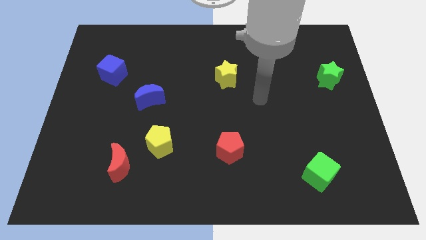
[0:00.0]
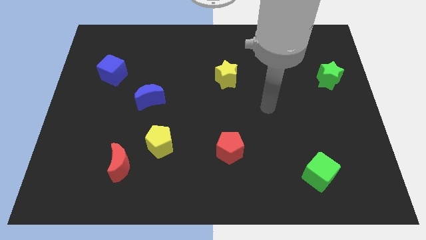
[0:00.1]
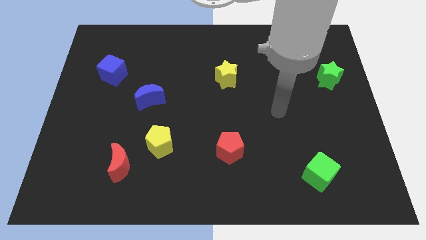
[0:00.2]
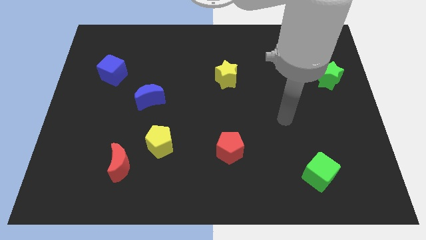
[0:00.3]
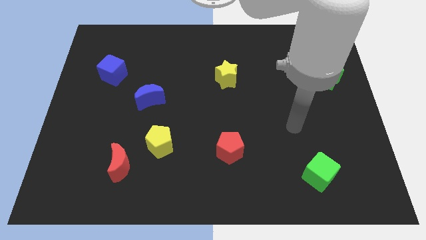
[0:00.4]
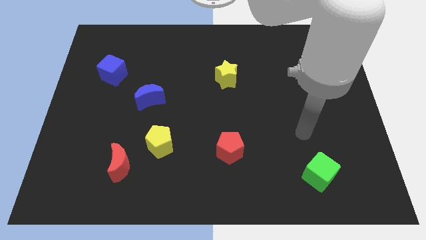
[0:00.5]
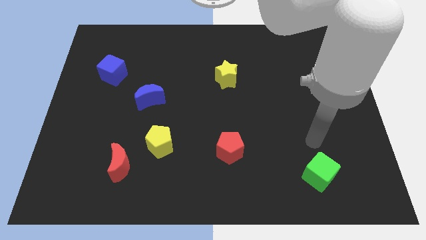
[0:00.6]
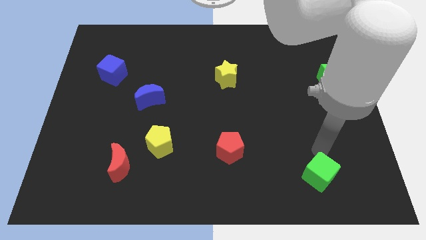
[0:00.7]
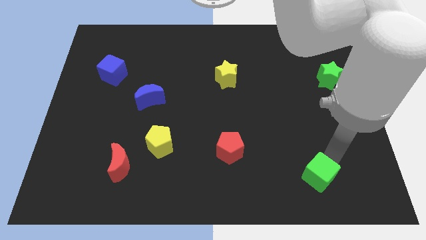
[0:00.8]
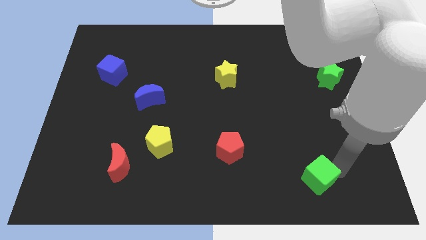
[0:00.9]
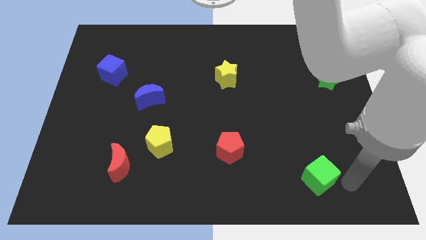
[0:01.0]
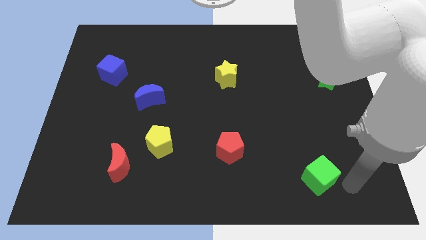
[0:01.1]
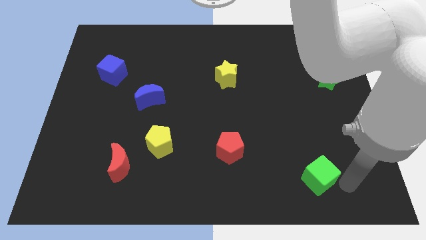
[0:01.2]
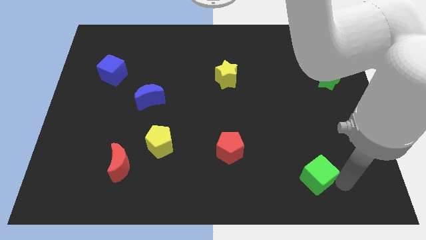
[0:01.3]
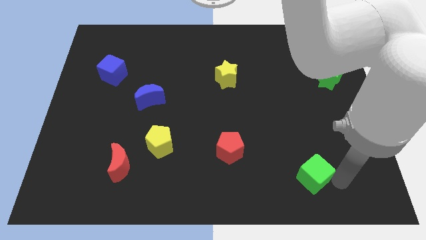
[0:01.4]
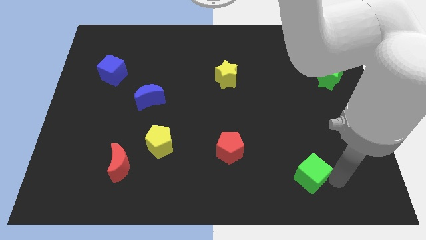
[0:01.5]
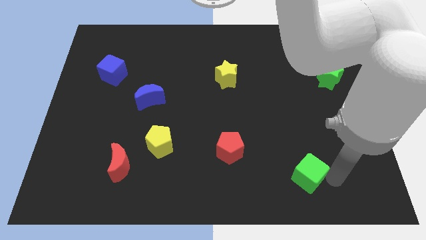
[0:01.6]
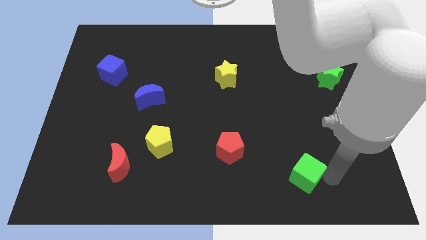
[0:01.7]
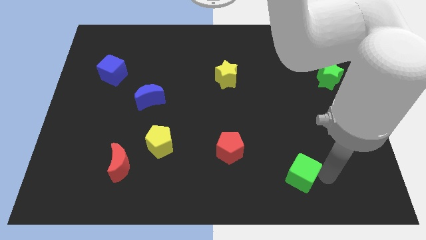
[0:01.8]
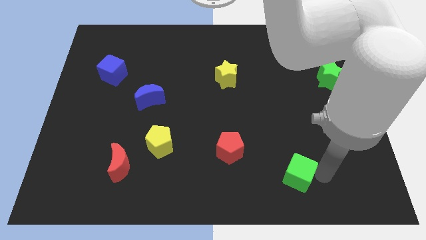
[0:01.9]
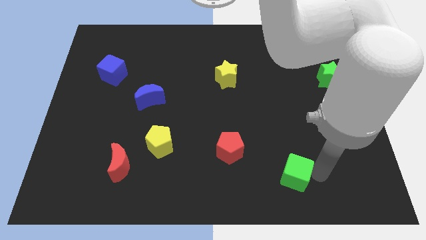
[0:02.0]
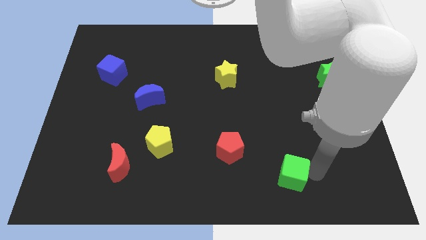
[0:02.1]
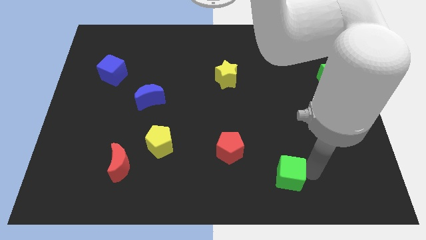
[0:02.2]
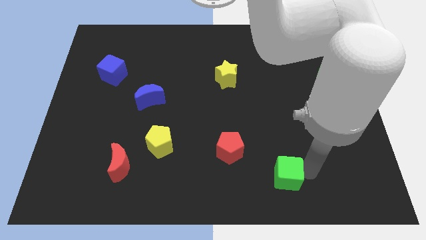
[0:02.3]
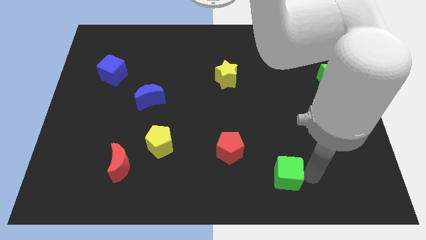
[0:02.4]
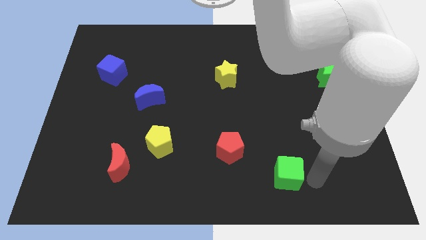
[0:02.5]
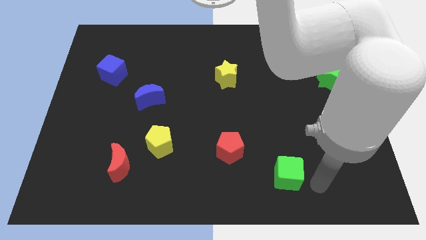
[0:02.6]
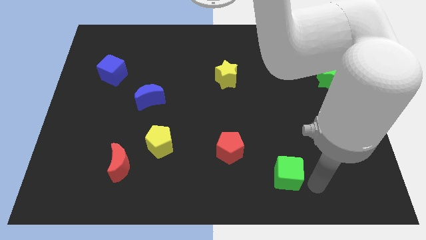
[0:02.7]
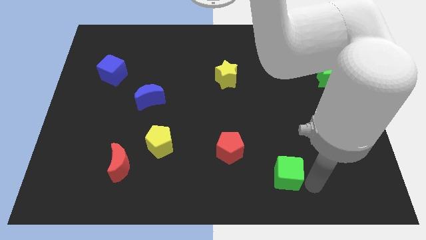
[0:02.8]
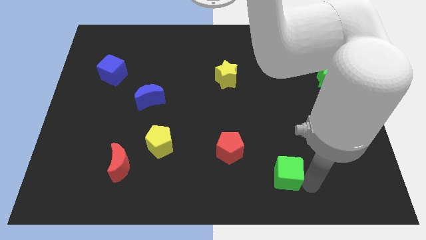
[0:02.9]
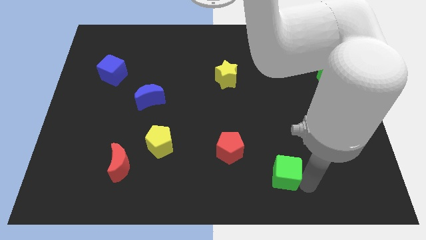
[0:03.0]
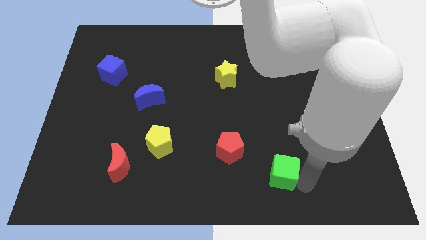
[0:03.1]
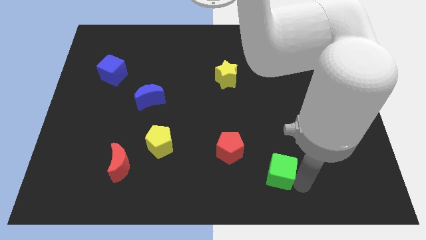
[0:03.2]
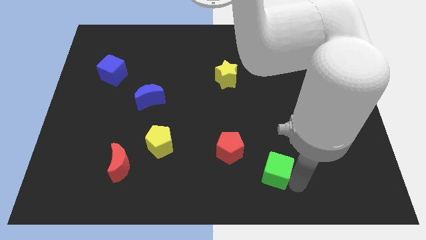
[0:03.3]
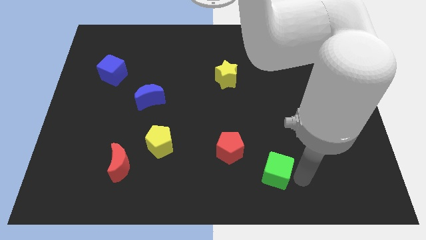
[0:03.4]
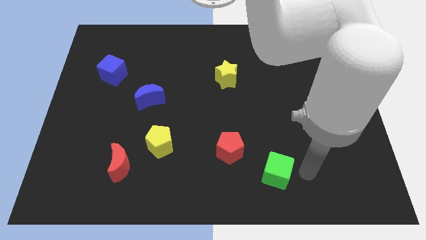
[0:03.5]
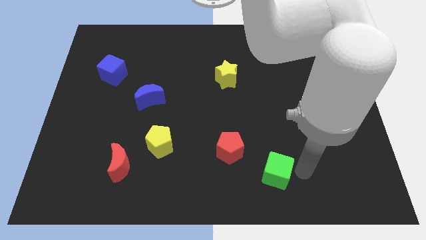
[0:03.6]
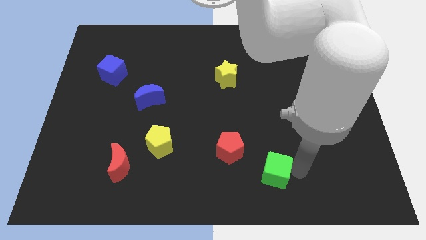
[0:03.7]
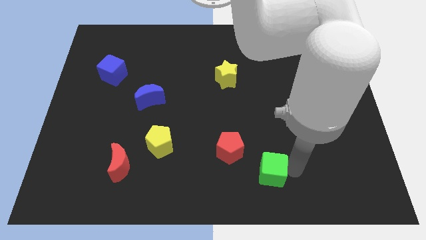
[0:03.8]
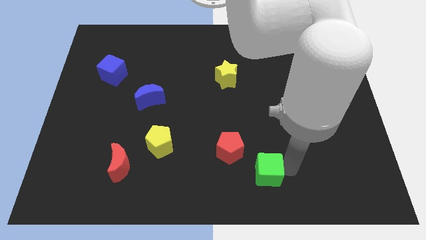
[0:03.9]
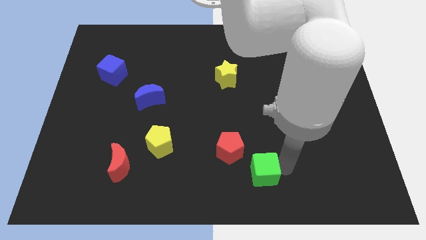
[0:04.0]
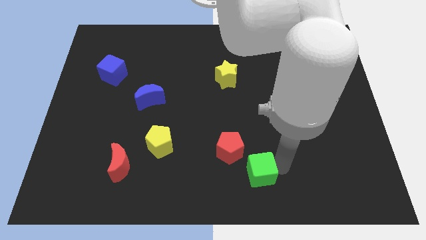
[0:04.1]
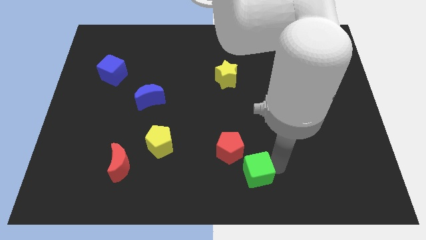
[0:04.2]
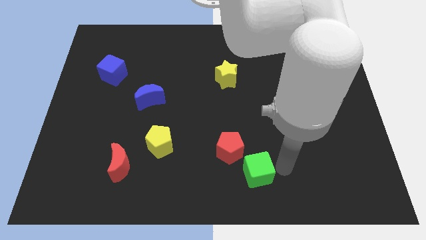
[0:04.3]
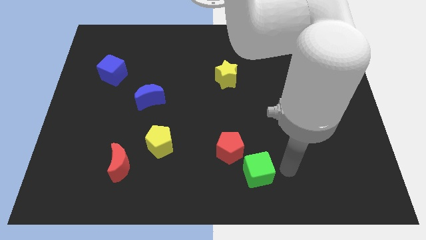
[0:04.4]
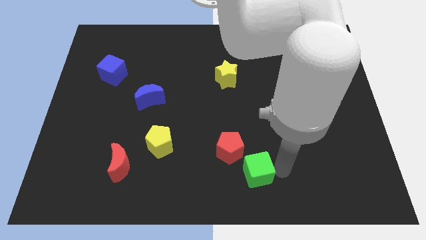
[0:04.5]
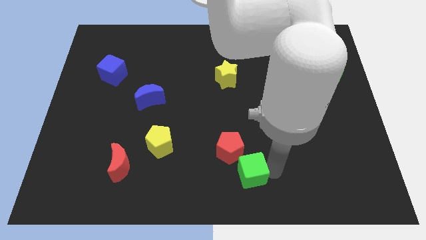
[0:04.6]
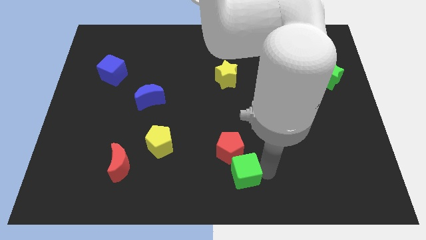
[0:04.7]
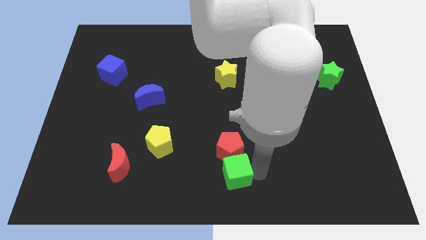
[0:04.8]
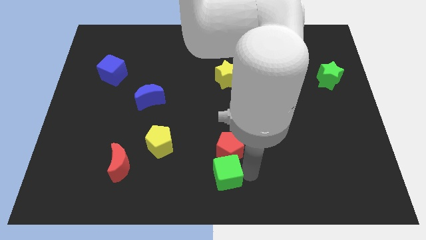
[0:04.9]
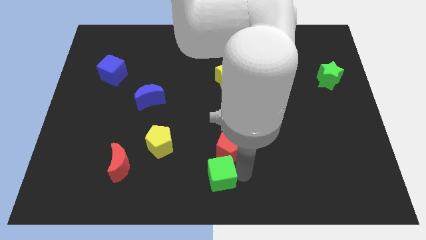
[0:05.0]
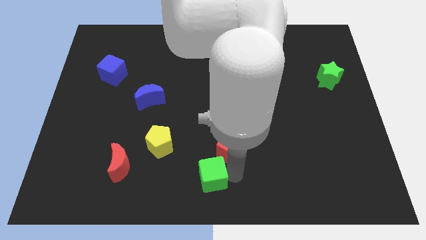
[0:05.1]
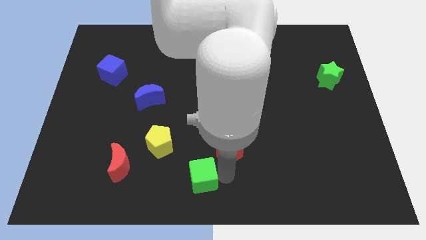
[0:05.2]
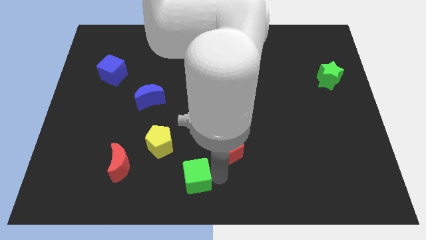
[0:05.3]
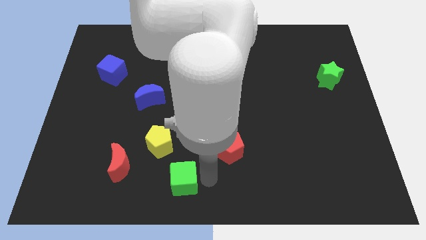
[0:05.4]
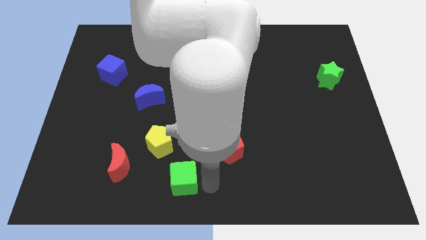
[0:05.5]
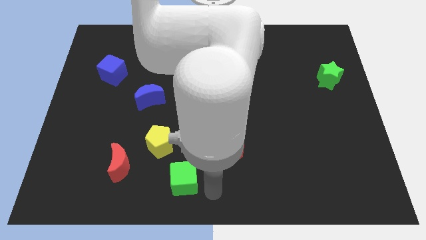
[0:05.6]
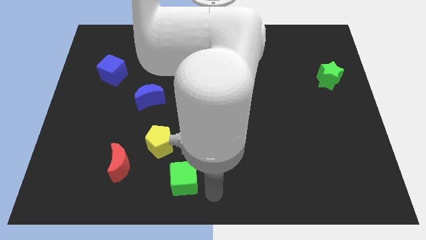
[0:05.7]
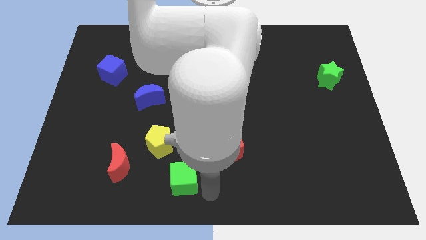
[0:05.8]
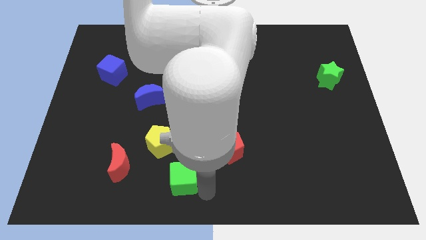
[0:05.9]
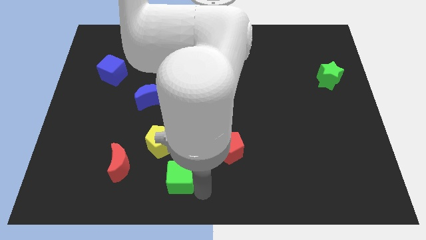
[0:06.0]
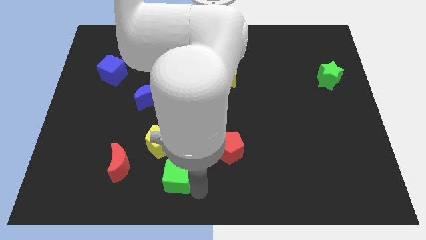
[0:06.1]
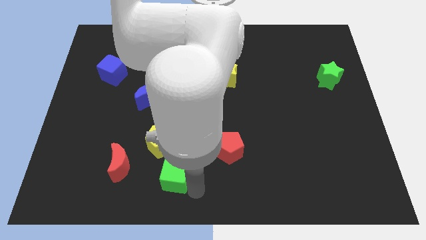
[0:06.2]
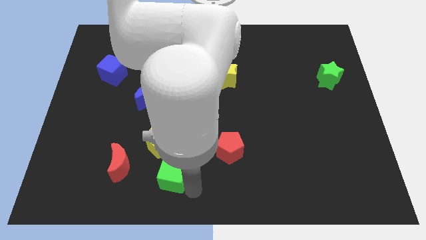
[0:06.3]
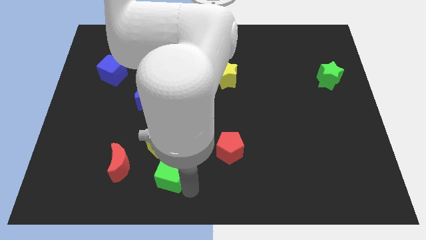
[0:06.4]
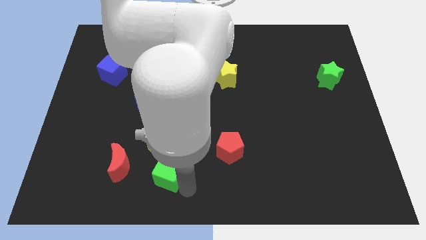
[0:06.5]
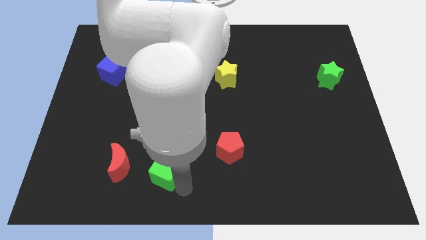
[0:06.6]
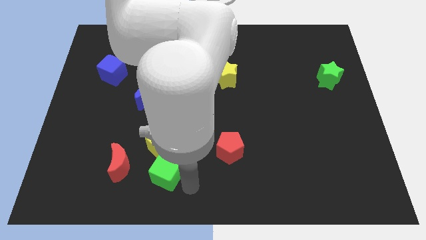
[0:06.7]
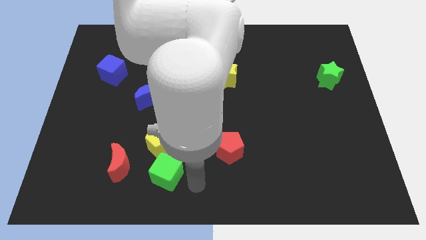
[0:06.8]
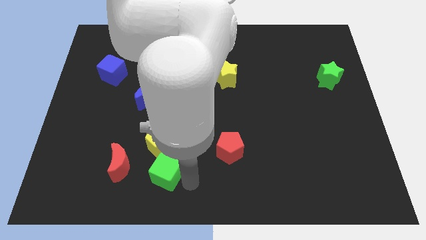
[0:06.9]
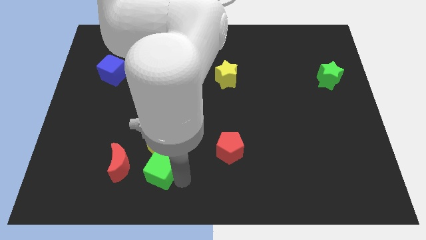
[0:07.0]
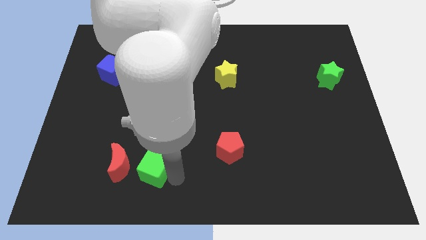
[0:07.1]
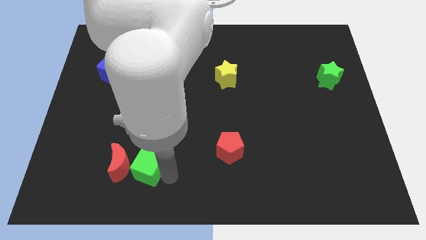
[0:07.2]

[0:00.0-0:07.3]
push the green cube next to the red moon
